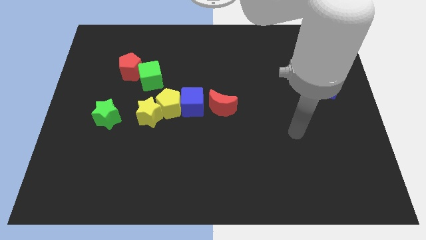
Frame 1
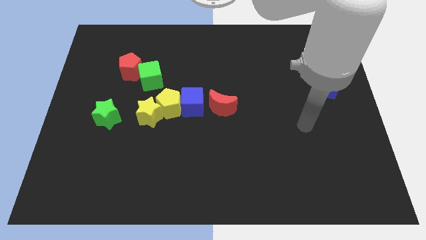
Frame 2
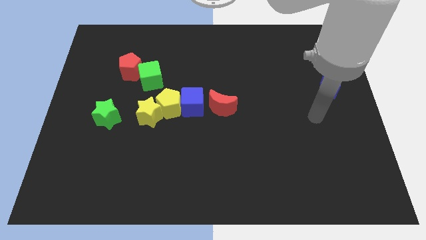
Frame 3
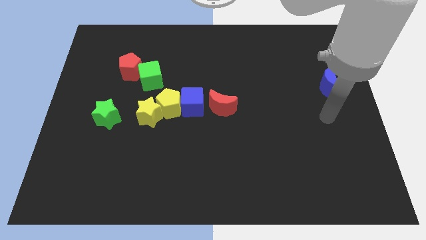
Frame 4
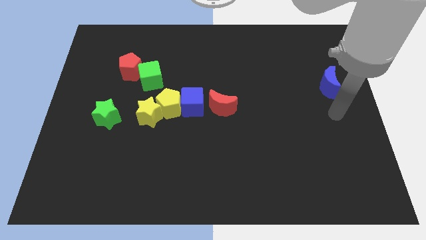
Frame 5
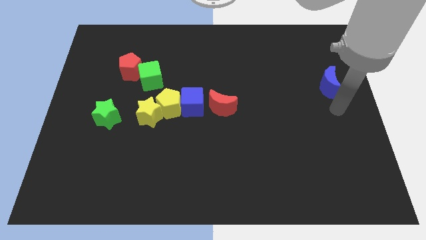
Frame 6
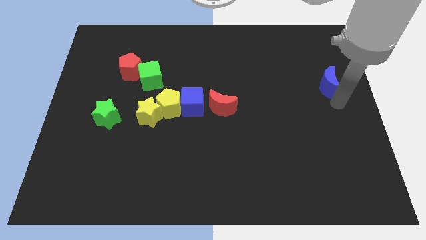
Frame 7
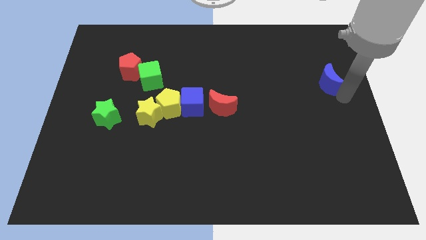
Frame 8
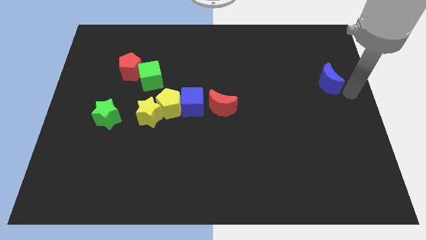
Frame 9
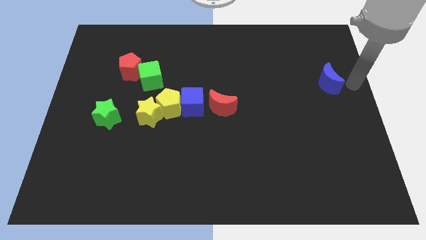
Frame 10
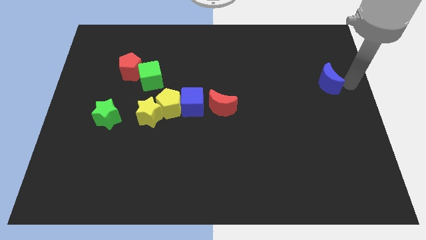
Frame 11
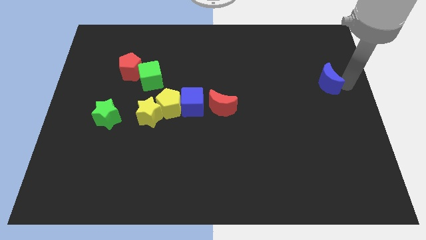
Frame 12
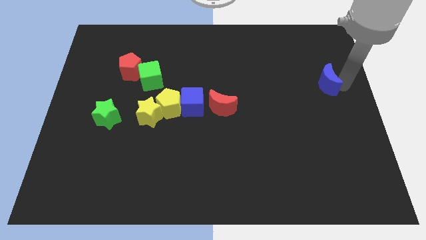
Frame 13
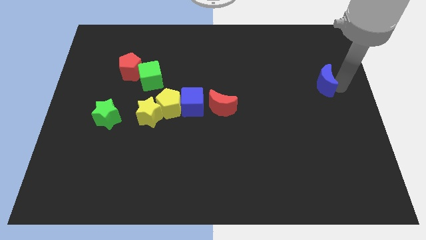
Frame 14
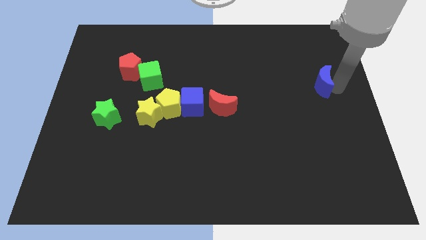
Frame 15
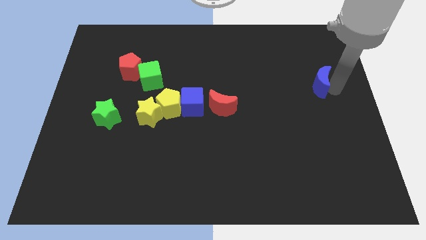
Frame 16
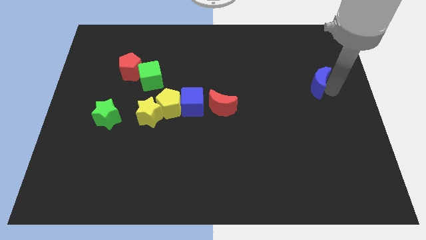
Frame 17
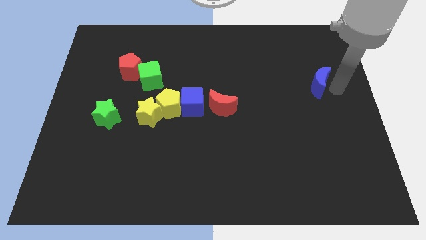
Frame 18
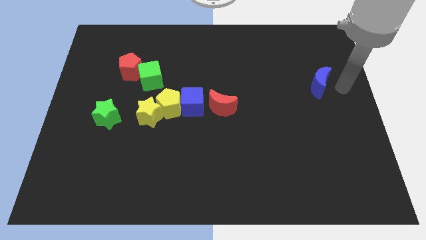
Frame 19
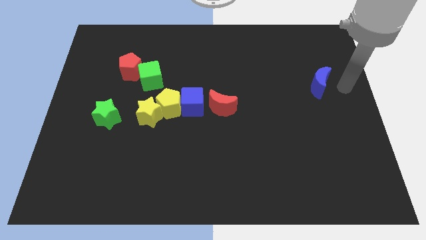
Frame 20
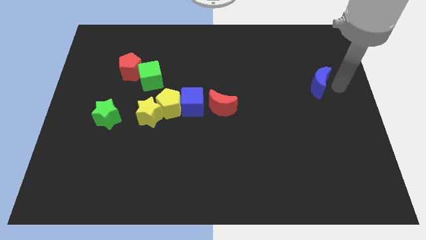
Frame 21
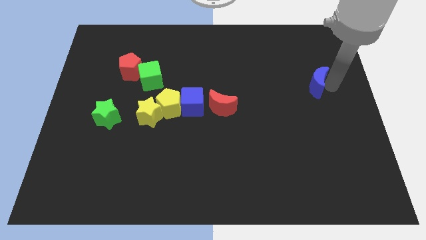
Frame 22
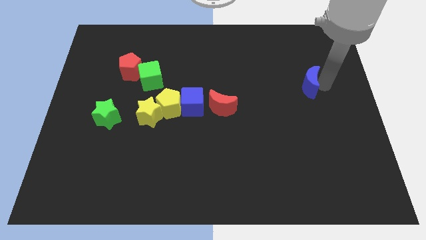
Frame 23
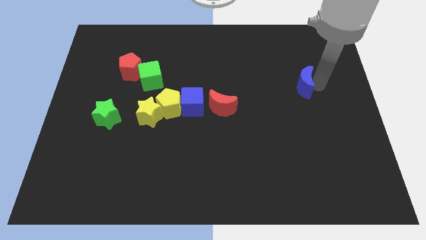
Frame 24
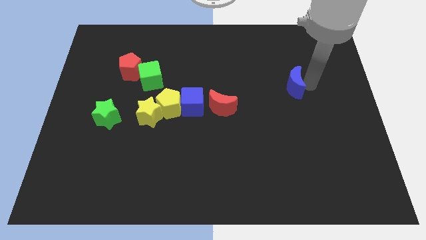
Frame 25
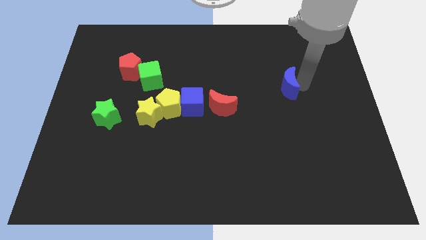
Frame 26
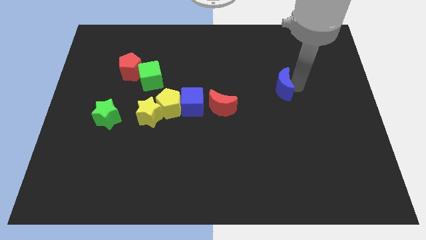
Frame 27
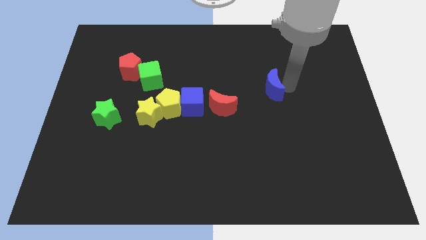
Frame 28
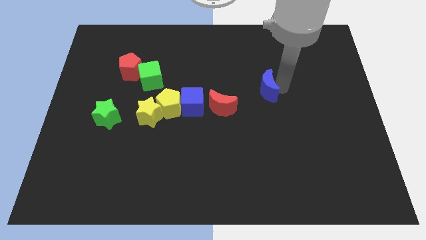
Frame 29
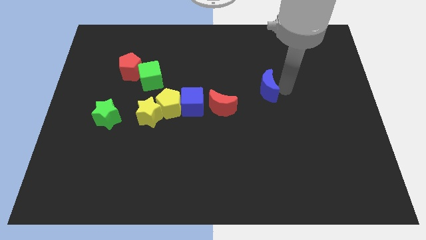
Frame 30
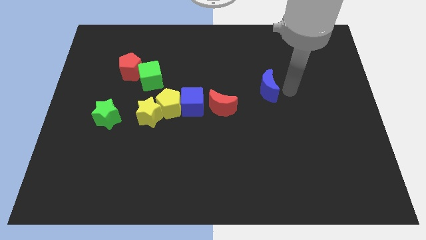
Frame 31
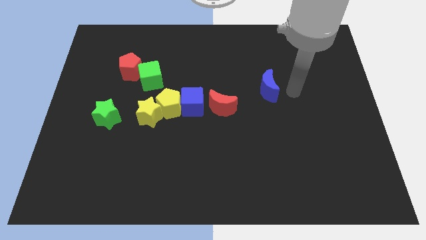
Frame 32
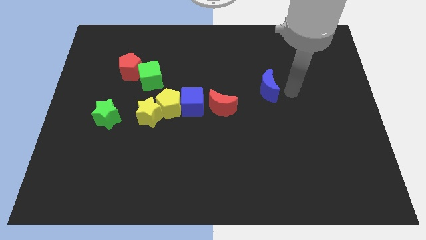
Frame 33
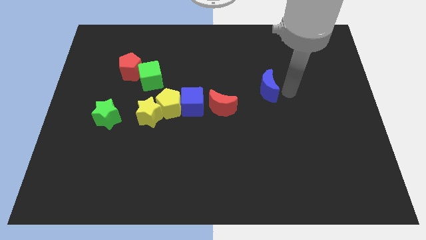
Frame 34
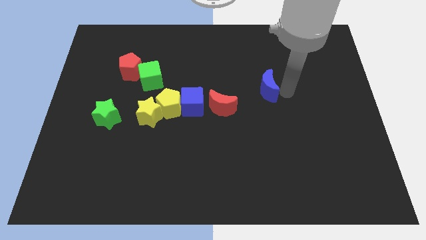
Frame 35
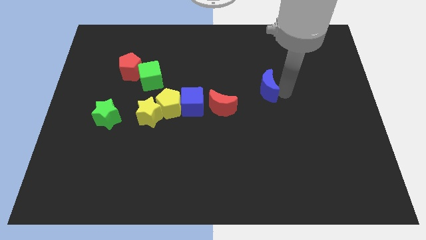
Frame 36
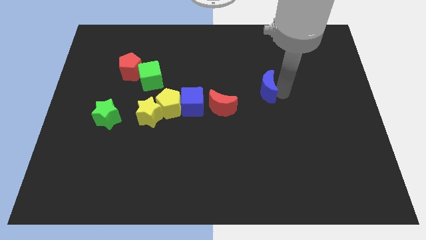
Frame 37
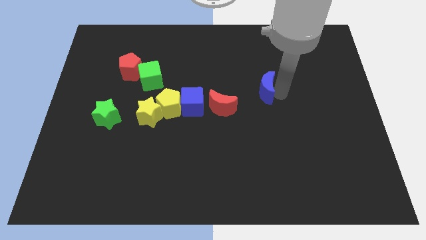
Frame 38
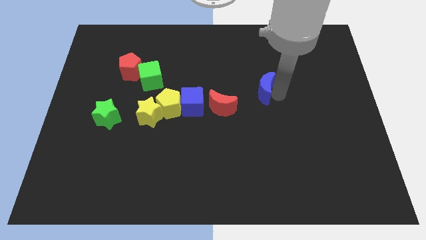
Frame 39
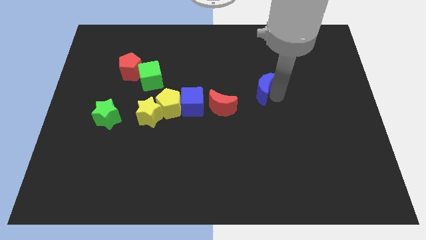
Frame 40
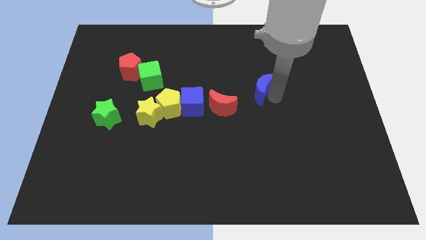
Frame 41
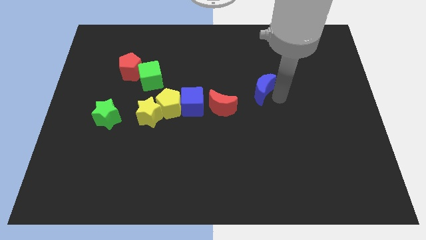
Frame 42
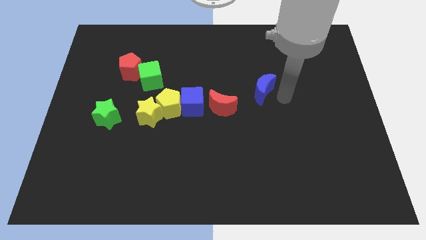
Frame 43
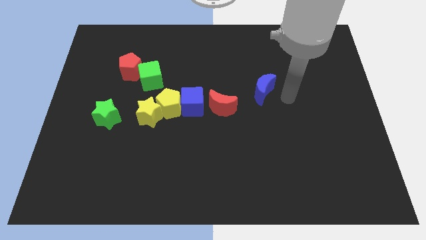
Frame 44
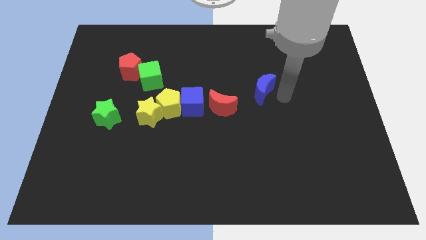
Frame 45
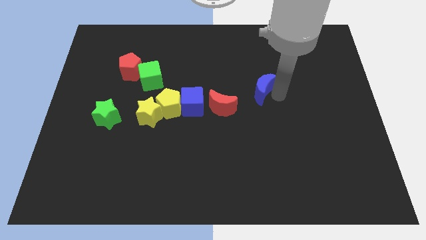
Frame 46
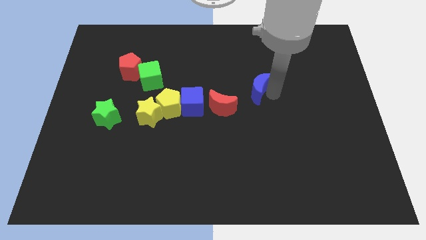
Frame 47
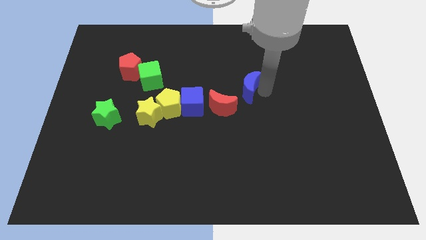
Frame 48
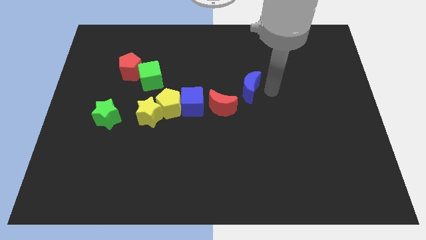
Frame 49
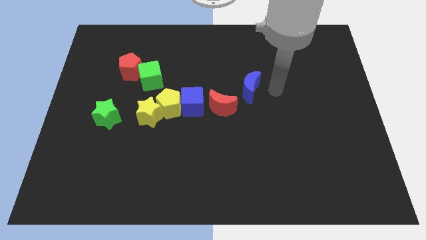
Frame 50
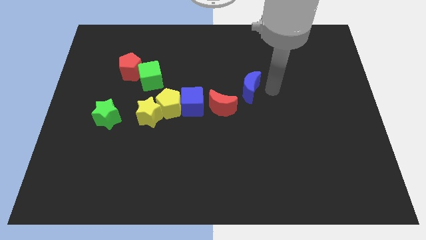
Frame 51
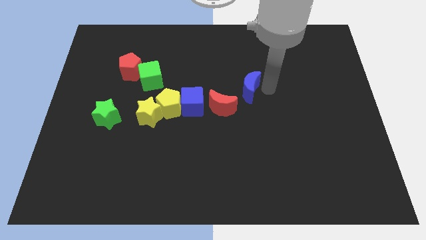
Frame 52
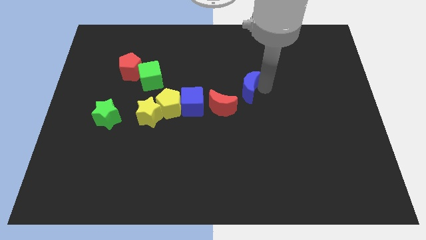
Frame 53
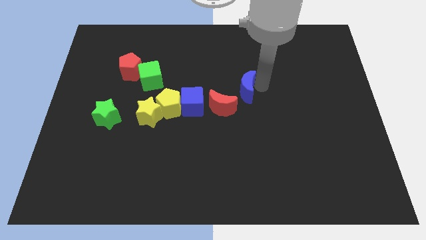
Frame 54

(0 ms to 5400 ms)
move the blue moon left

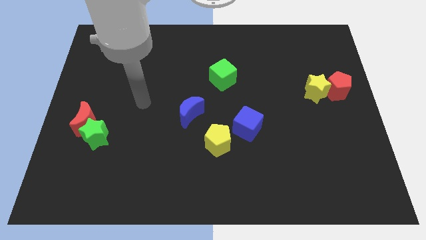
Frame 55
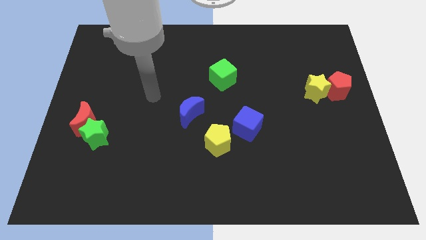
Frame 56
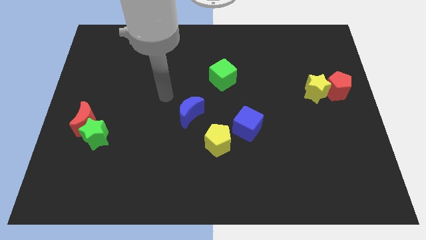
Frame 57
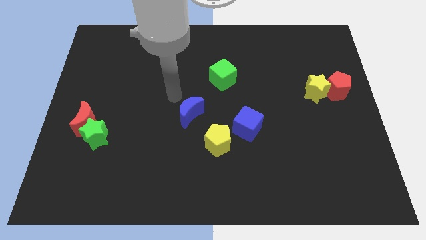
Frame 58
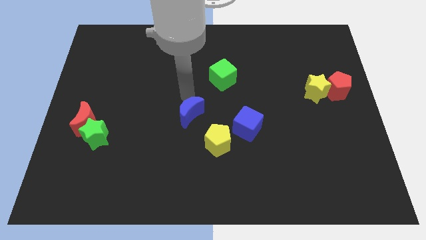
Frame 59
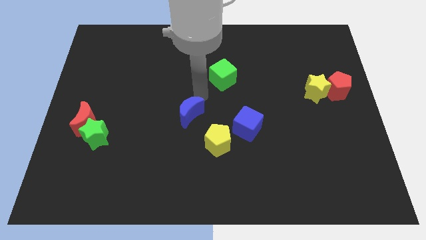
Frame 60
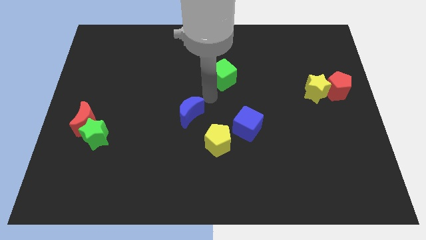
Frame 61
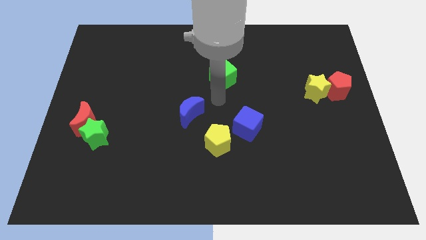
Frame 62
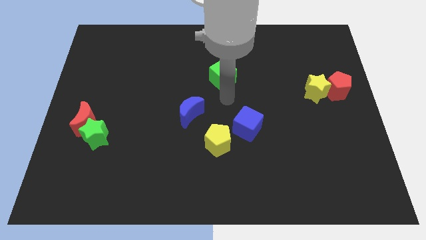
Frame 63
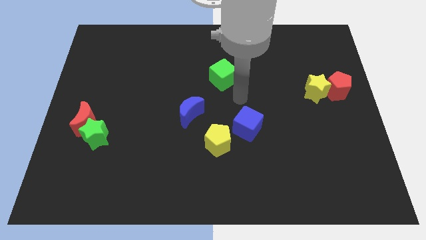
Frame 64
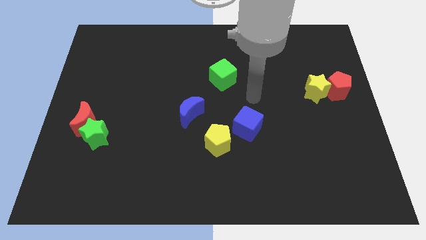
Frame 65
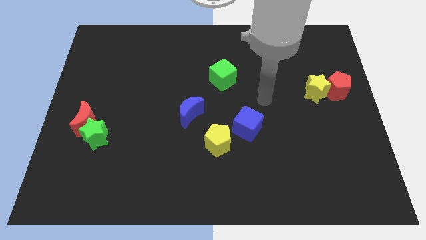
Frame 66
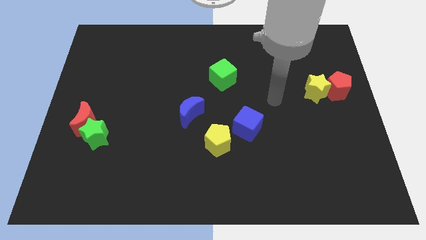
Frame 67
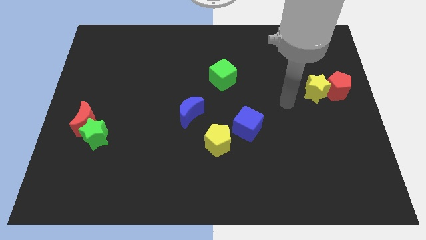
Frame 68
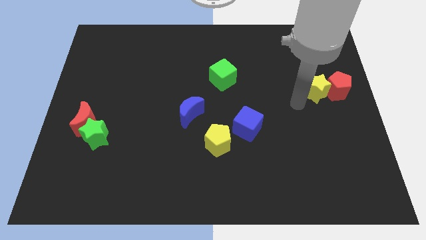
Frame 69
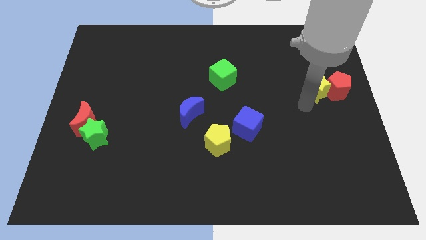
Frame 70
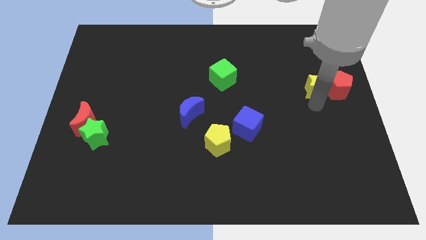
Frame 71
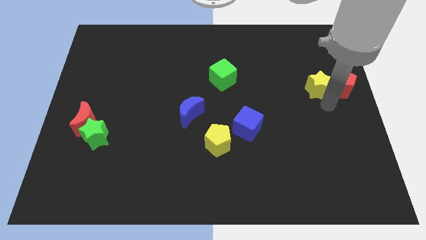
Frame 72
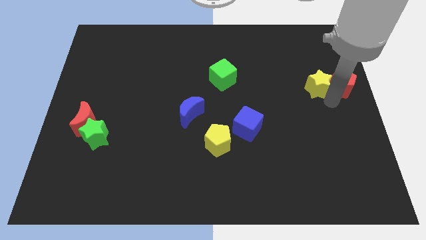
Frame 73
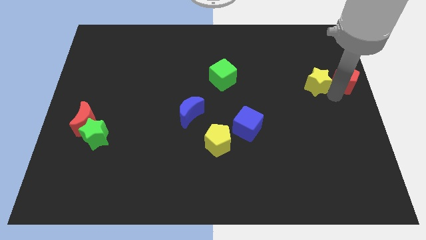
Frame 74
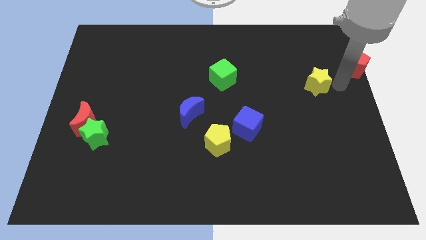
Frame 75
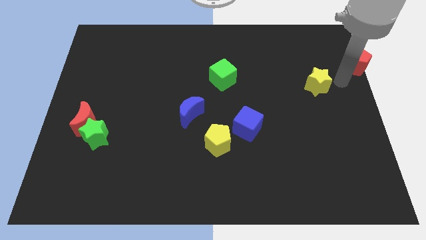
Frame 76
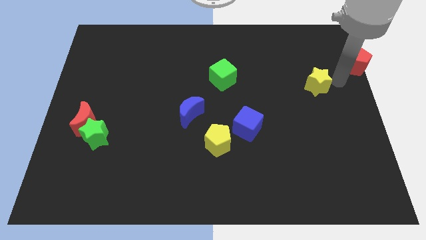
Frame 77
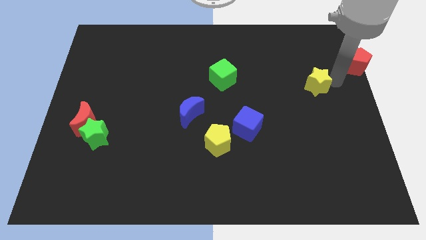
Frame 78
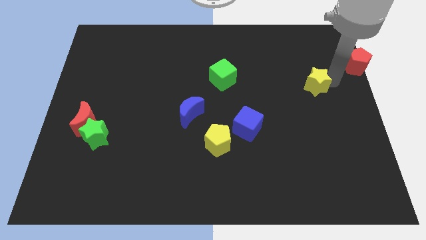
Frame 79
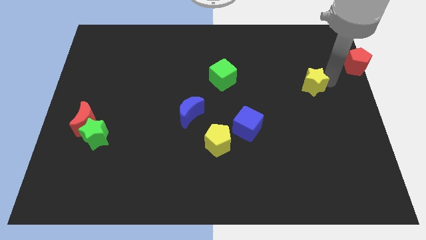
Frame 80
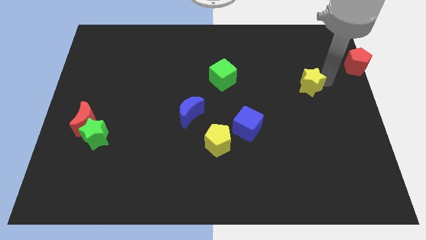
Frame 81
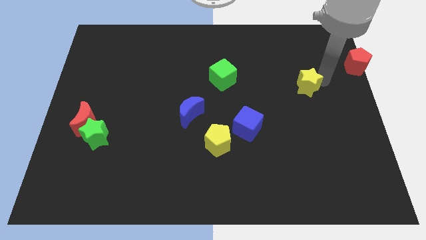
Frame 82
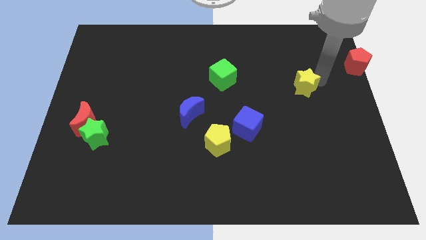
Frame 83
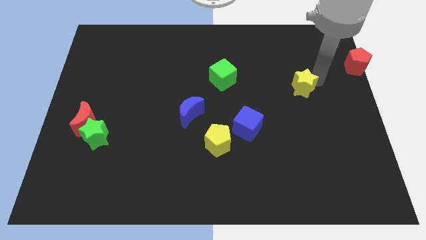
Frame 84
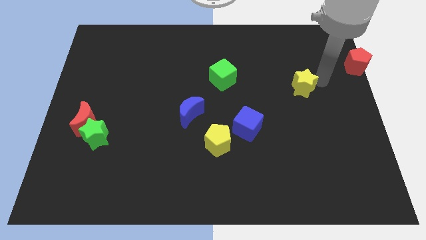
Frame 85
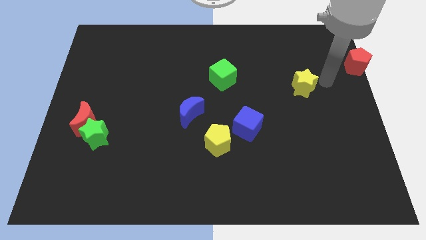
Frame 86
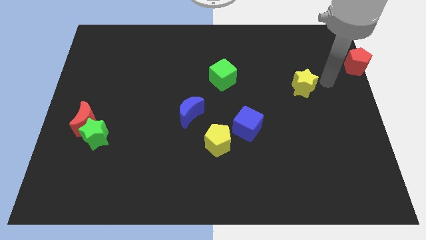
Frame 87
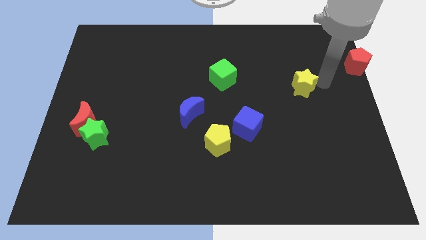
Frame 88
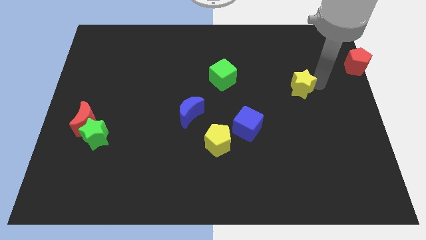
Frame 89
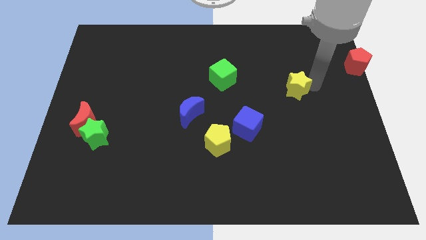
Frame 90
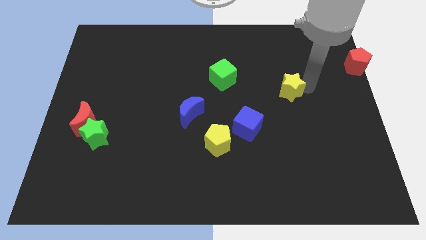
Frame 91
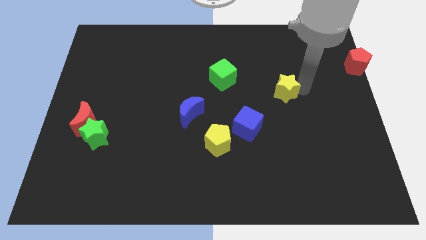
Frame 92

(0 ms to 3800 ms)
slide the yellow star left a little bit
